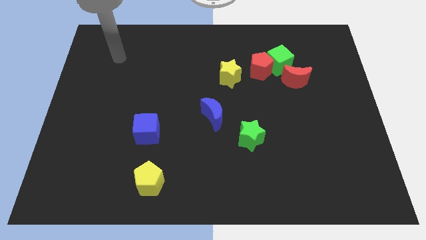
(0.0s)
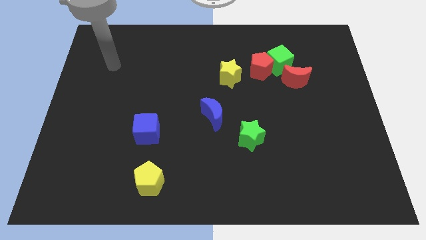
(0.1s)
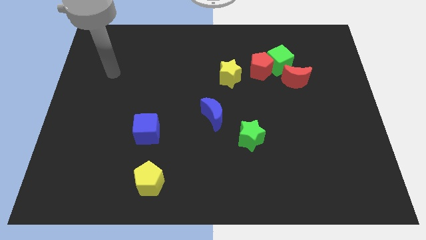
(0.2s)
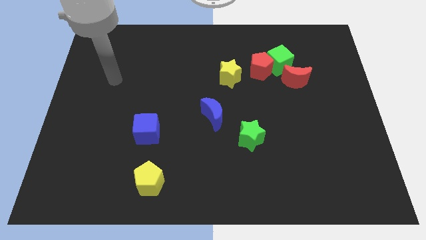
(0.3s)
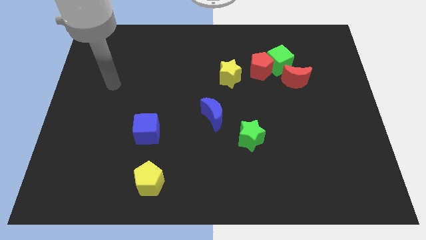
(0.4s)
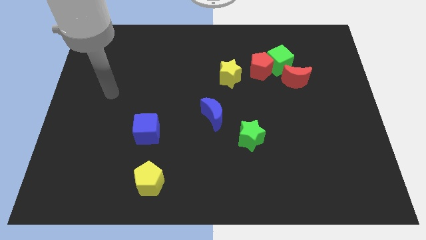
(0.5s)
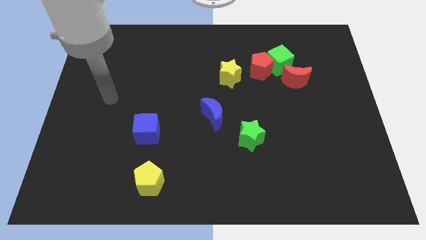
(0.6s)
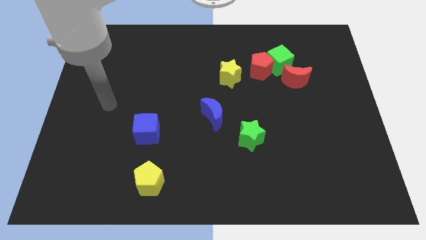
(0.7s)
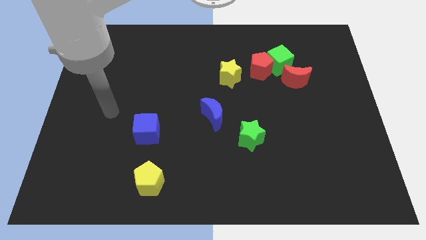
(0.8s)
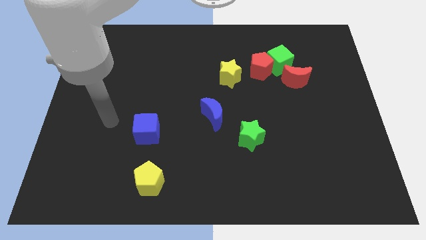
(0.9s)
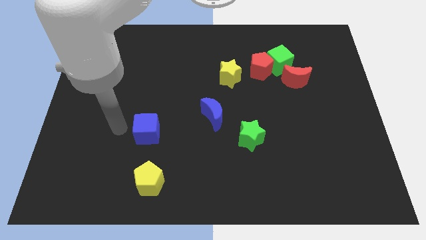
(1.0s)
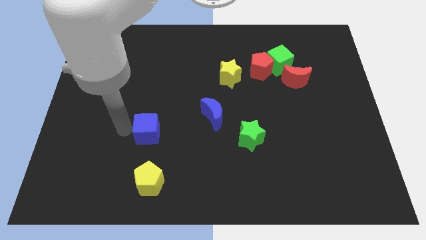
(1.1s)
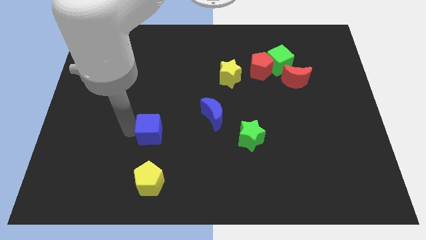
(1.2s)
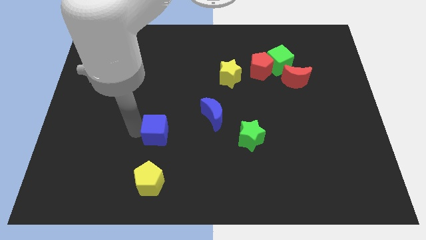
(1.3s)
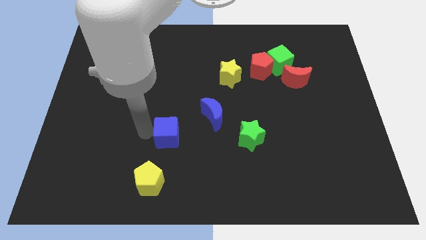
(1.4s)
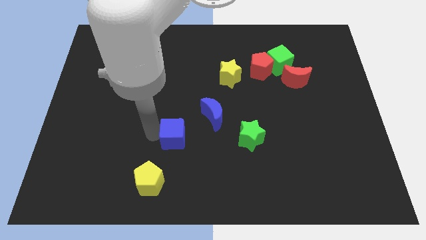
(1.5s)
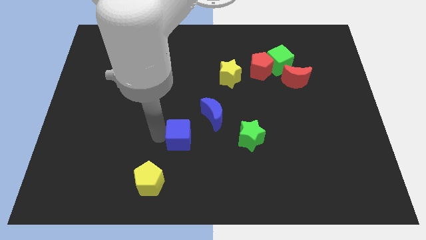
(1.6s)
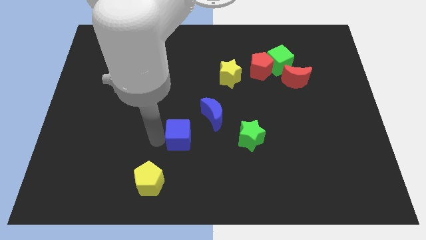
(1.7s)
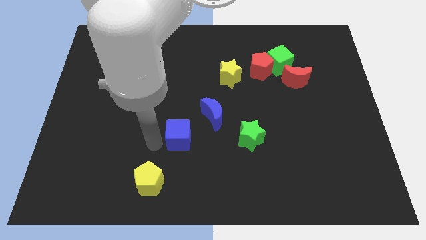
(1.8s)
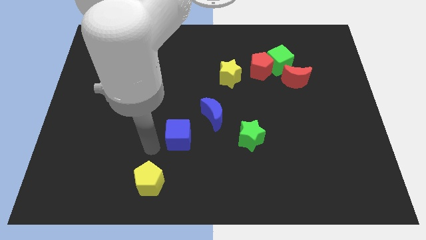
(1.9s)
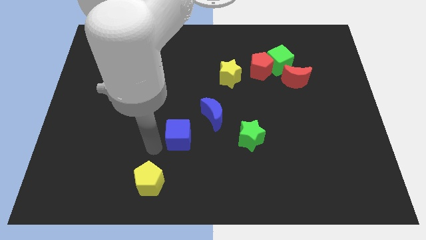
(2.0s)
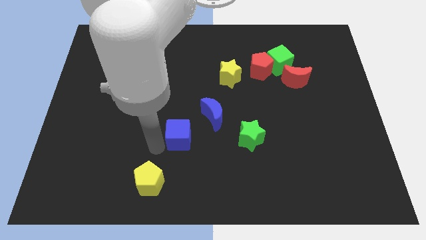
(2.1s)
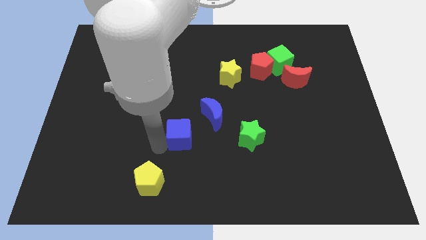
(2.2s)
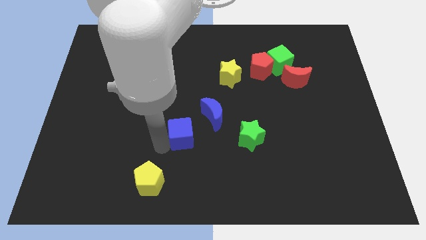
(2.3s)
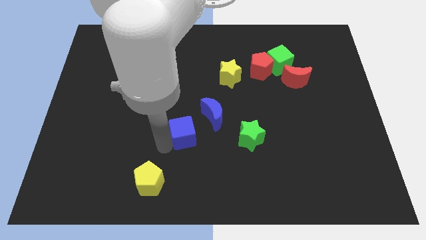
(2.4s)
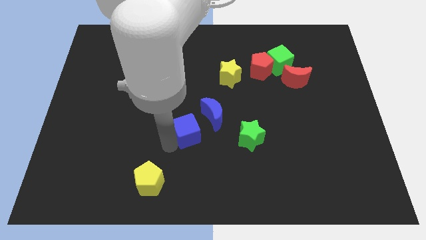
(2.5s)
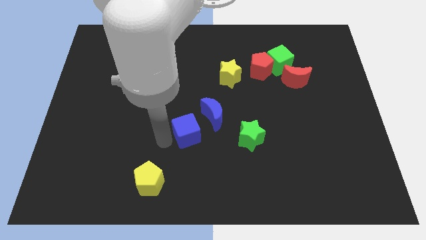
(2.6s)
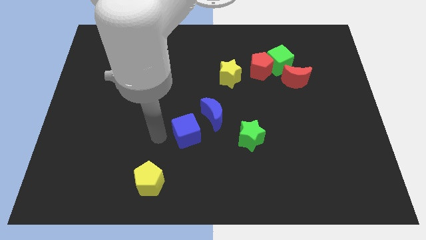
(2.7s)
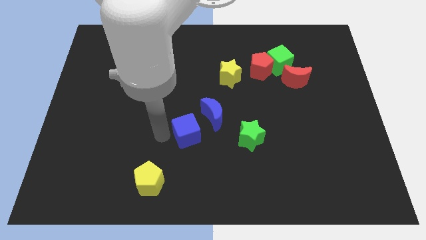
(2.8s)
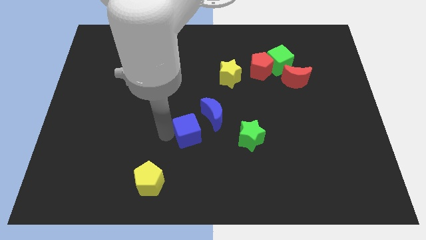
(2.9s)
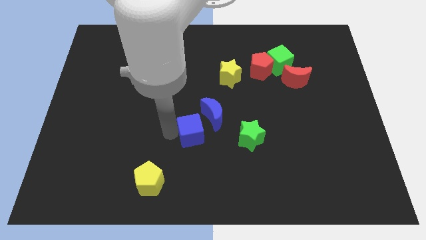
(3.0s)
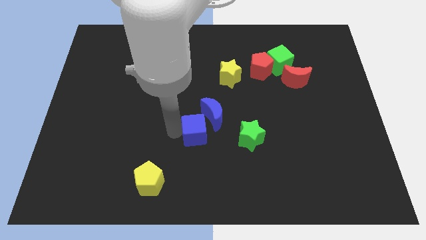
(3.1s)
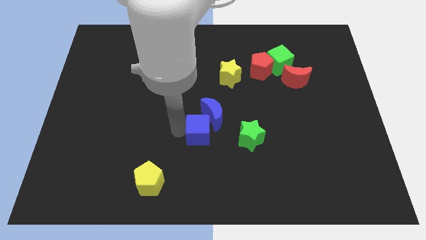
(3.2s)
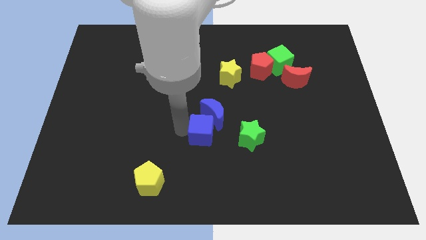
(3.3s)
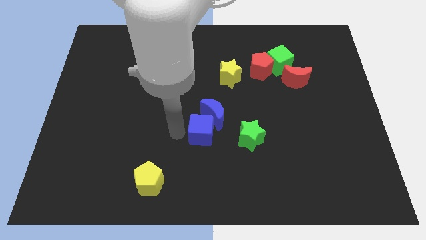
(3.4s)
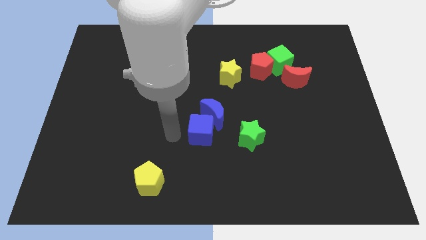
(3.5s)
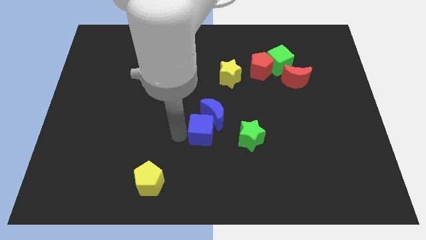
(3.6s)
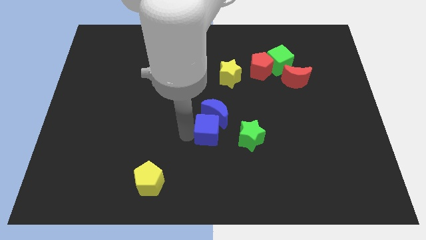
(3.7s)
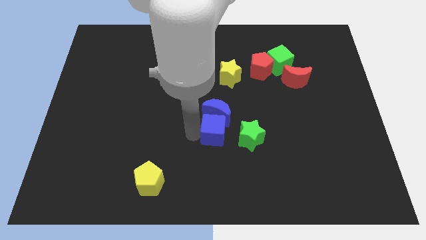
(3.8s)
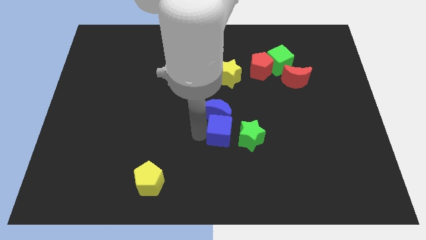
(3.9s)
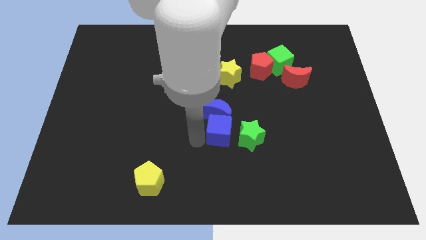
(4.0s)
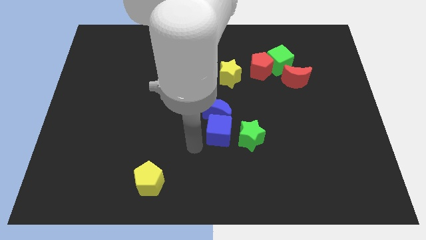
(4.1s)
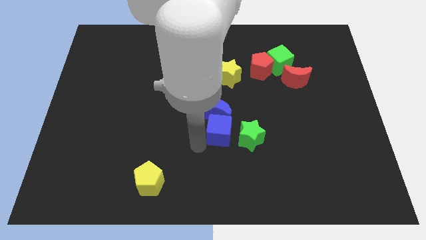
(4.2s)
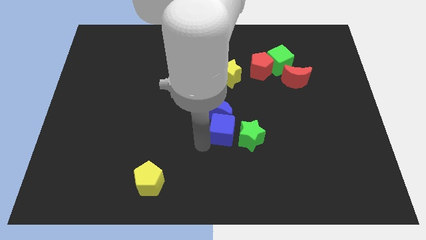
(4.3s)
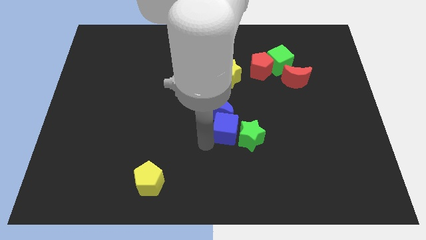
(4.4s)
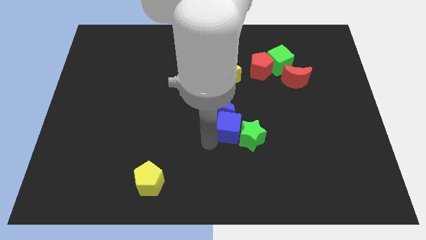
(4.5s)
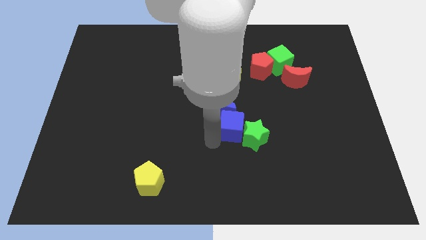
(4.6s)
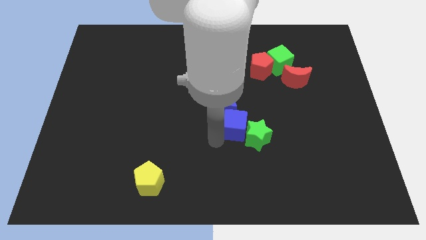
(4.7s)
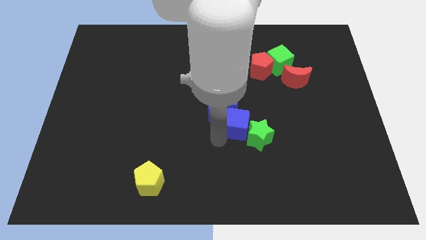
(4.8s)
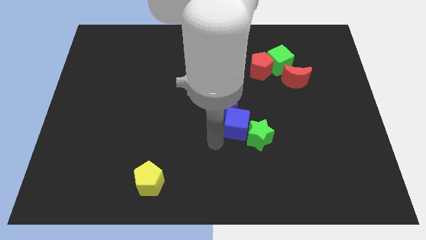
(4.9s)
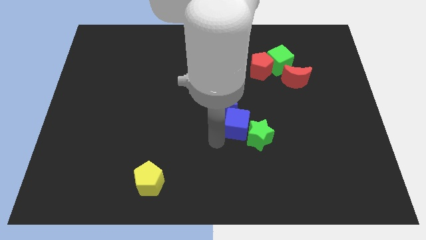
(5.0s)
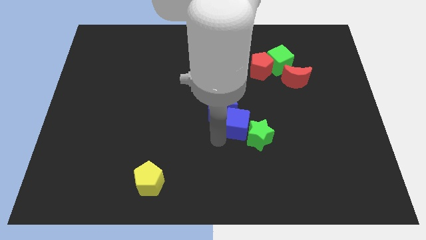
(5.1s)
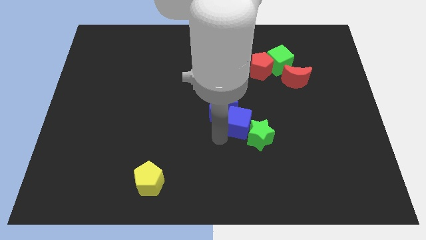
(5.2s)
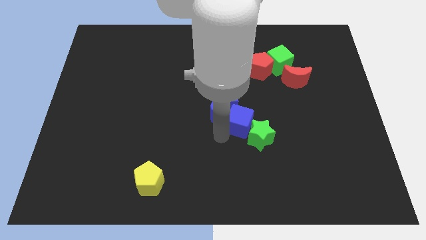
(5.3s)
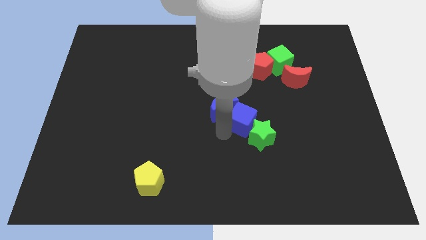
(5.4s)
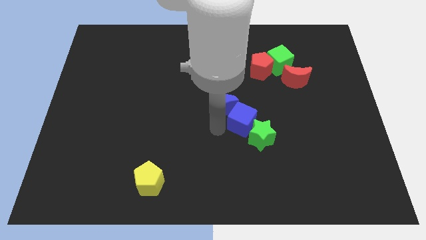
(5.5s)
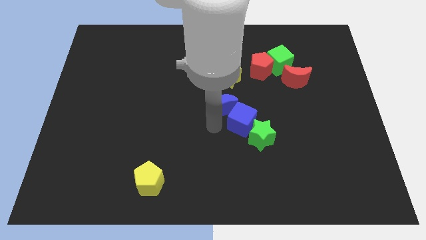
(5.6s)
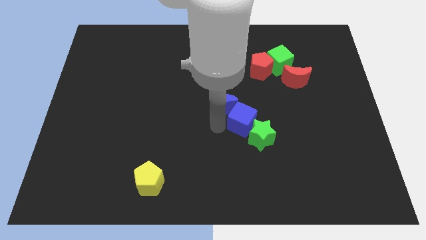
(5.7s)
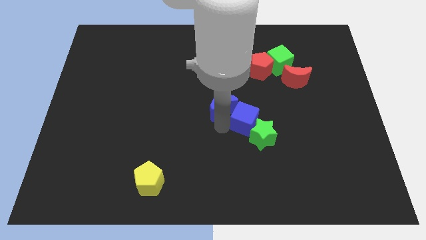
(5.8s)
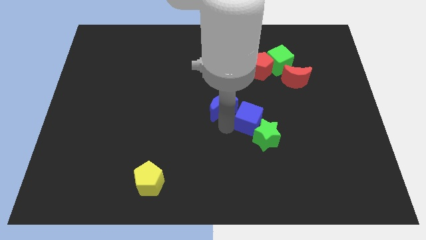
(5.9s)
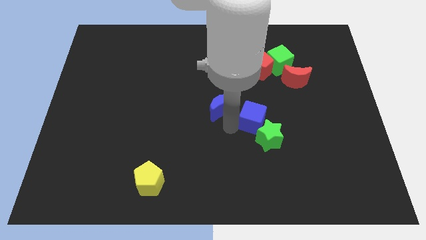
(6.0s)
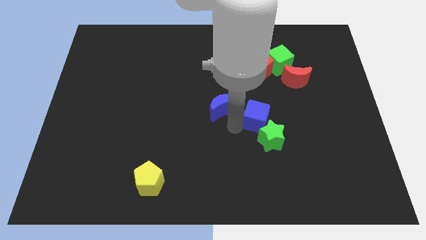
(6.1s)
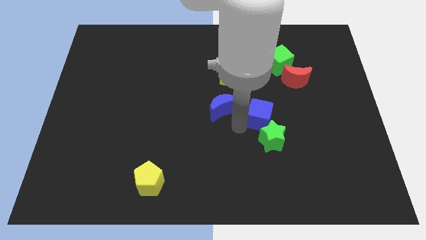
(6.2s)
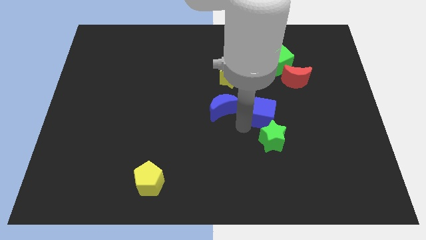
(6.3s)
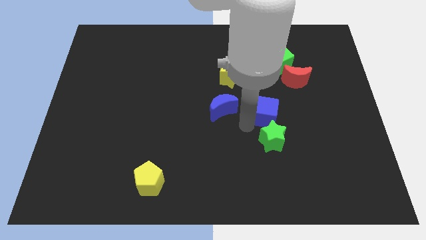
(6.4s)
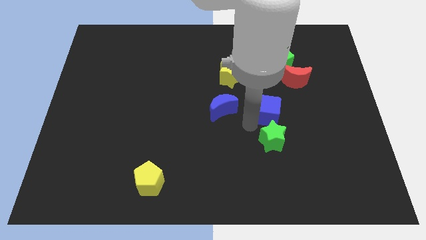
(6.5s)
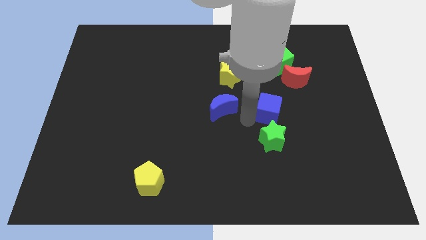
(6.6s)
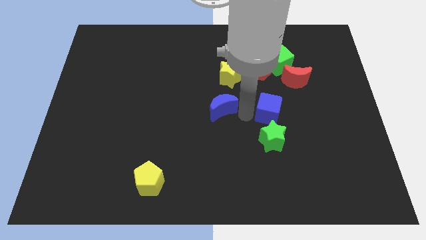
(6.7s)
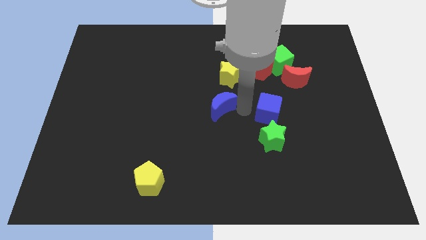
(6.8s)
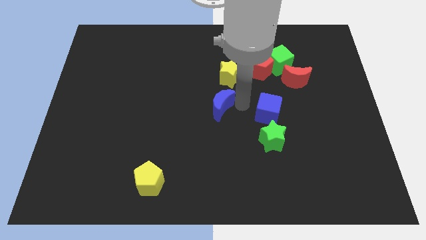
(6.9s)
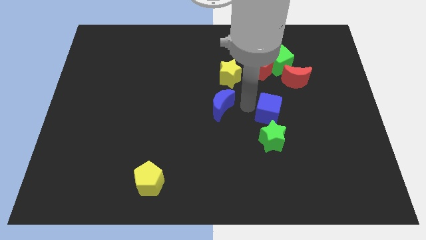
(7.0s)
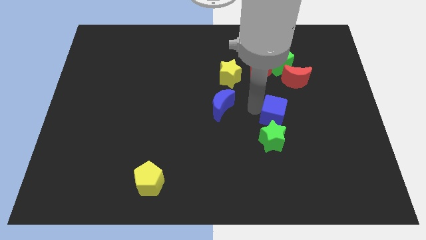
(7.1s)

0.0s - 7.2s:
move the blue cube to the top right side of the green star
